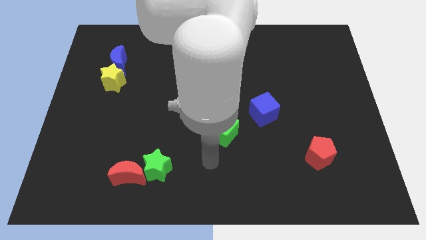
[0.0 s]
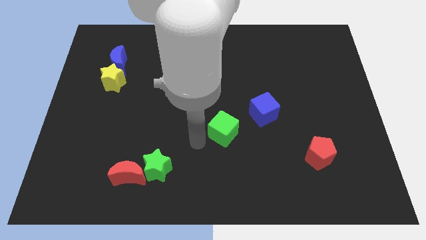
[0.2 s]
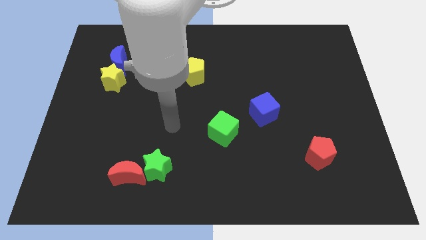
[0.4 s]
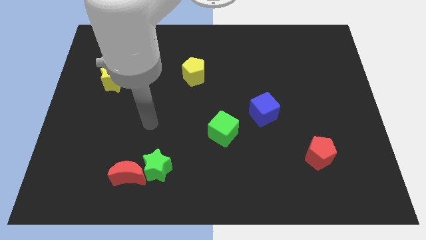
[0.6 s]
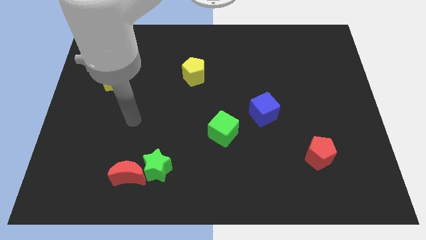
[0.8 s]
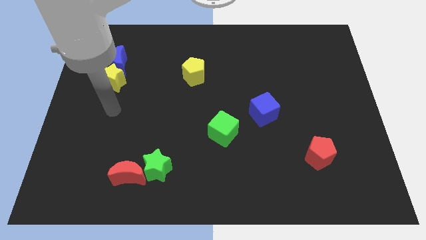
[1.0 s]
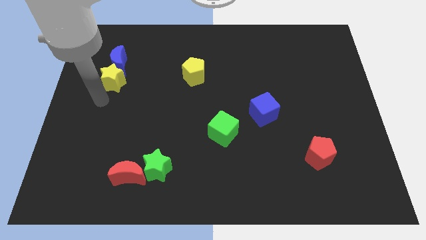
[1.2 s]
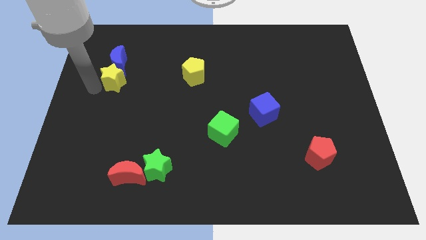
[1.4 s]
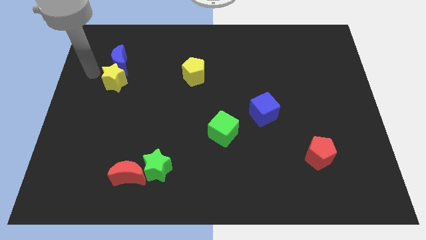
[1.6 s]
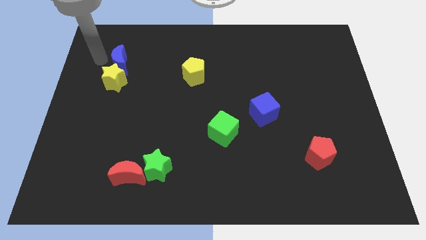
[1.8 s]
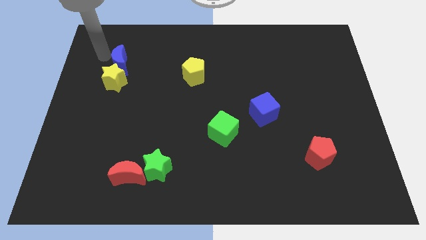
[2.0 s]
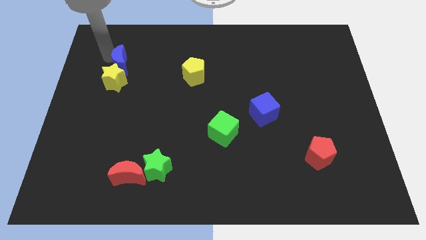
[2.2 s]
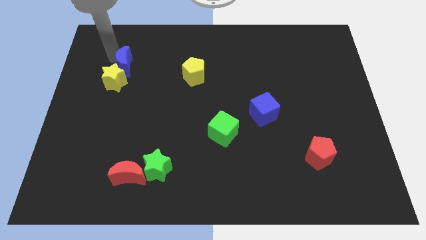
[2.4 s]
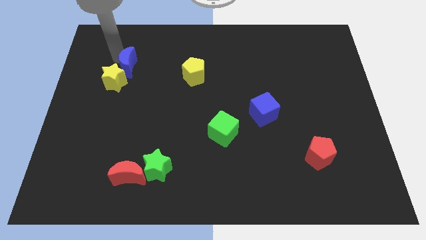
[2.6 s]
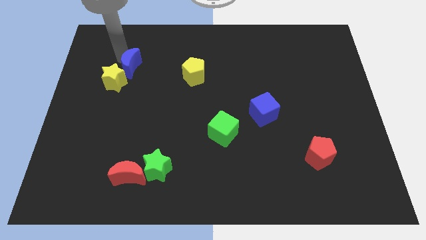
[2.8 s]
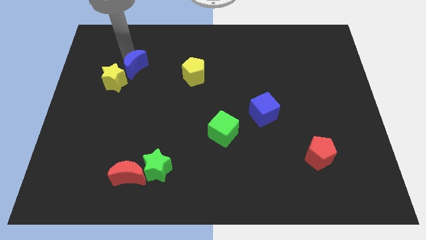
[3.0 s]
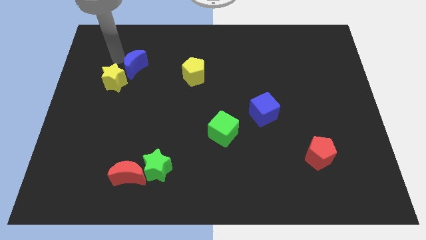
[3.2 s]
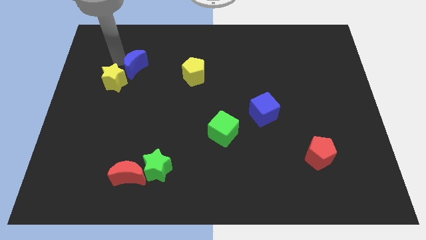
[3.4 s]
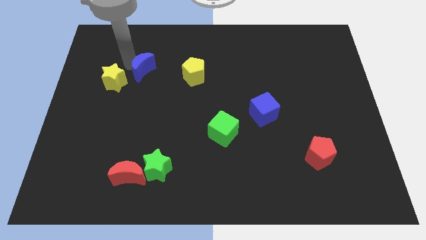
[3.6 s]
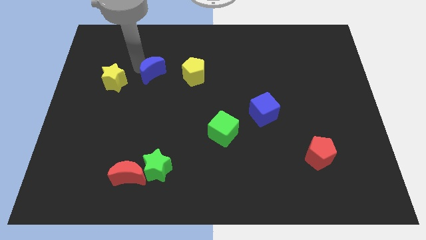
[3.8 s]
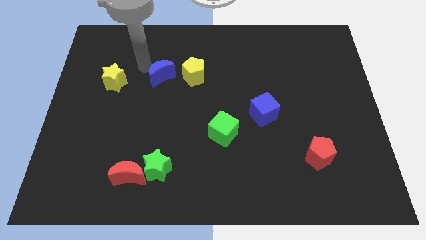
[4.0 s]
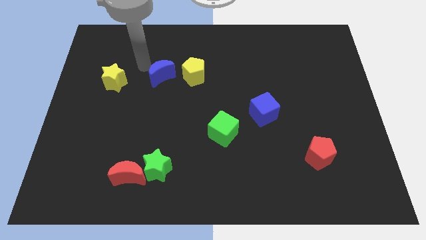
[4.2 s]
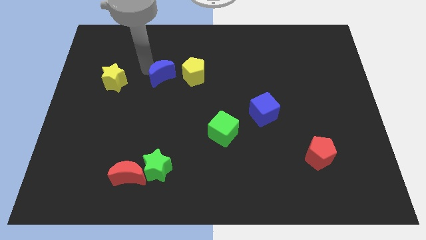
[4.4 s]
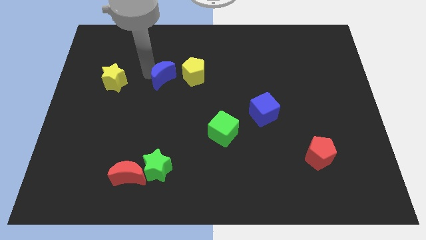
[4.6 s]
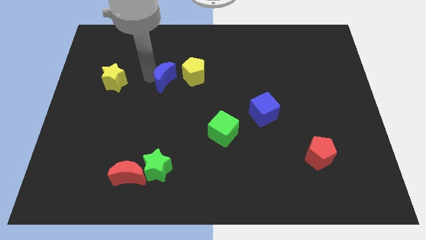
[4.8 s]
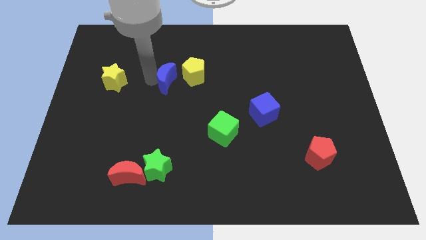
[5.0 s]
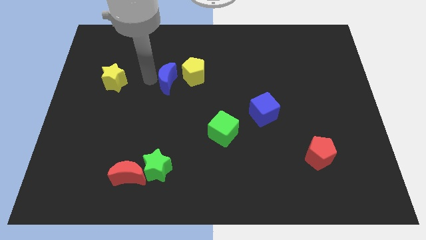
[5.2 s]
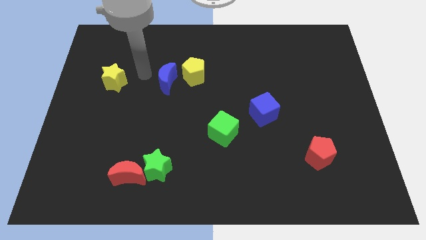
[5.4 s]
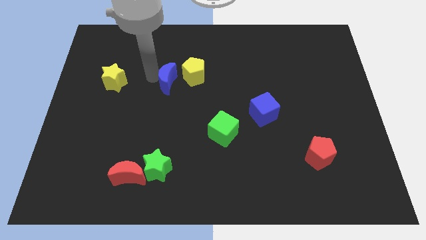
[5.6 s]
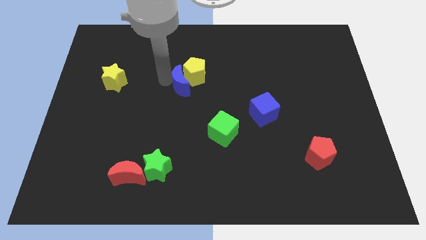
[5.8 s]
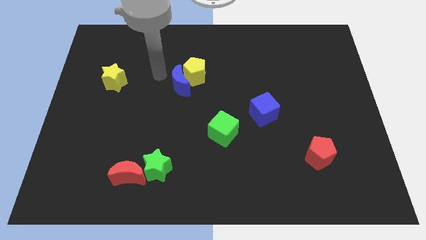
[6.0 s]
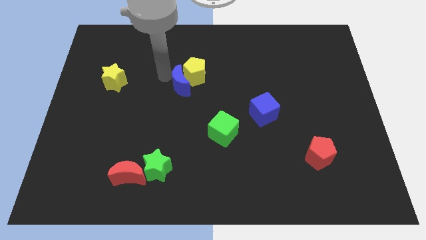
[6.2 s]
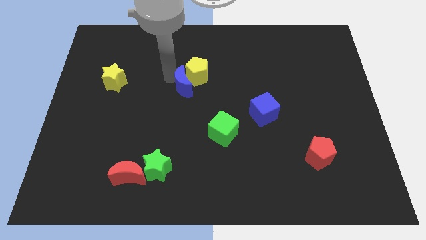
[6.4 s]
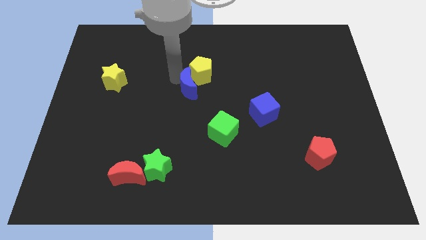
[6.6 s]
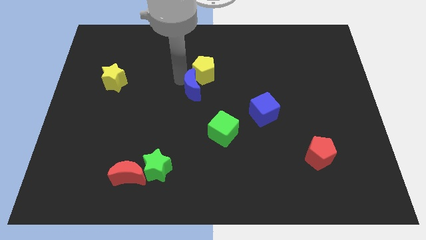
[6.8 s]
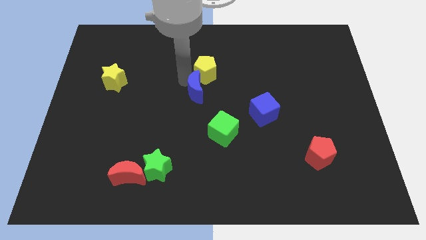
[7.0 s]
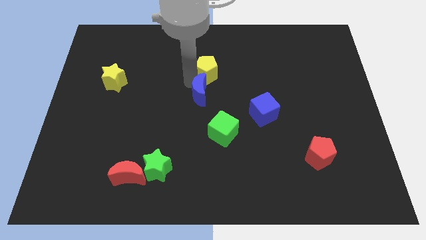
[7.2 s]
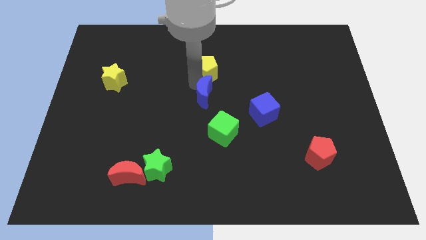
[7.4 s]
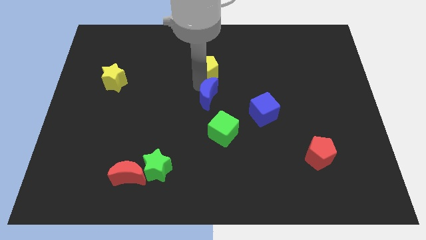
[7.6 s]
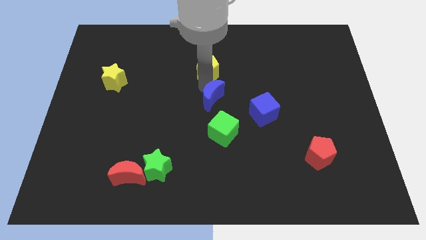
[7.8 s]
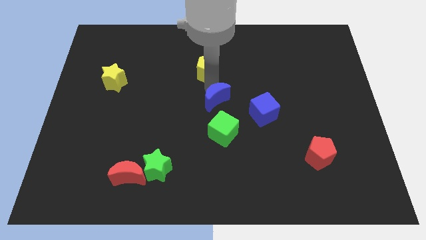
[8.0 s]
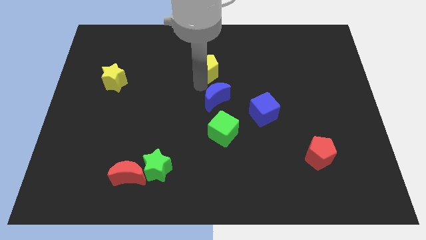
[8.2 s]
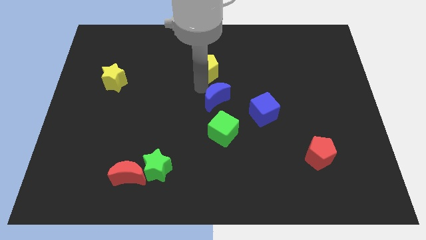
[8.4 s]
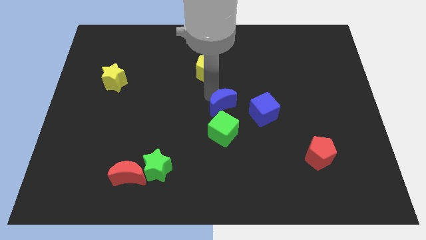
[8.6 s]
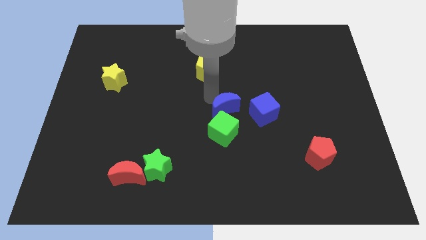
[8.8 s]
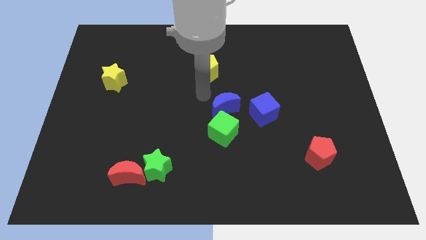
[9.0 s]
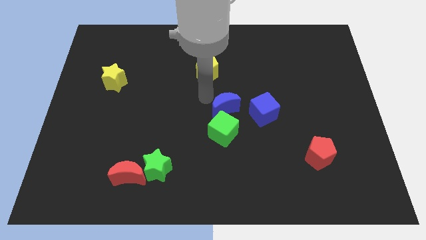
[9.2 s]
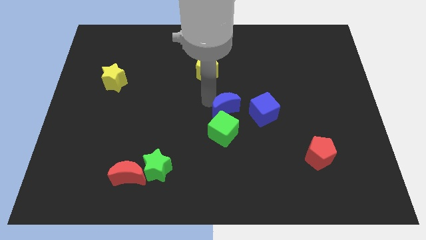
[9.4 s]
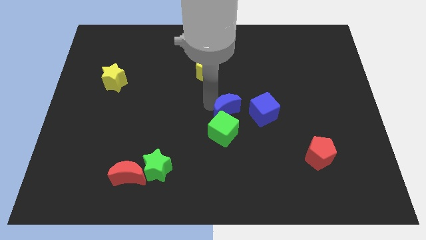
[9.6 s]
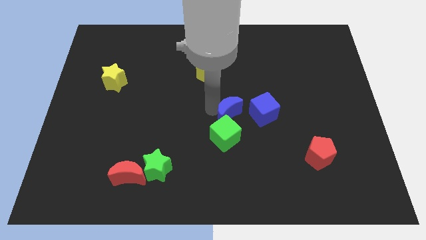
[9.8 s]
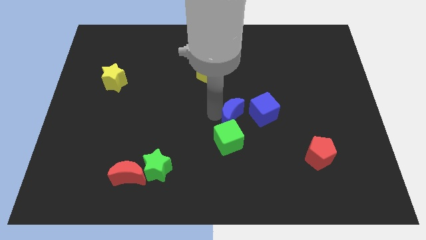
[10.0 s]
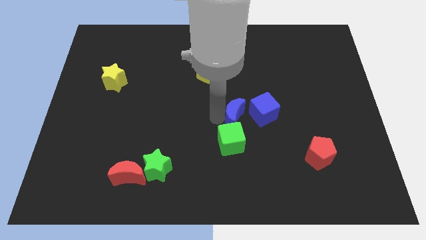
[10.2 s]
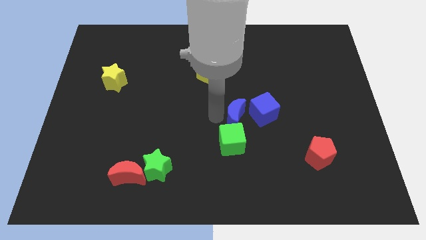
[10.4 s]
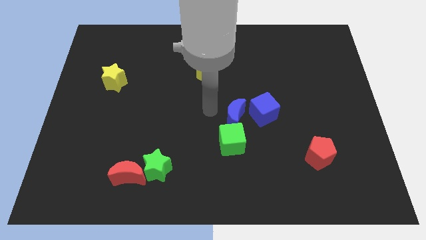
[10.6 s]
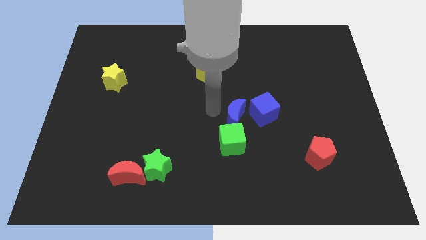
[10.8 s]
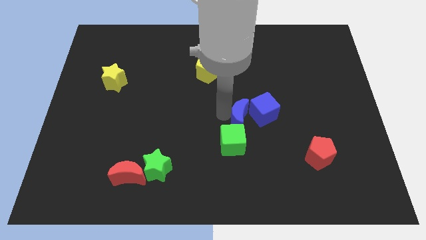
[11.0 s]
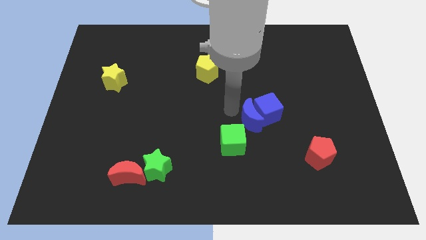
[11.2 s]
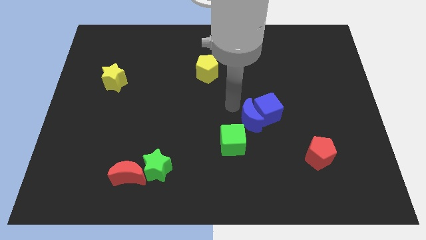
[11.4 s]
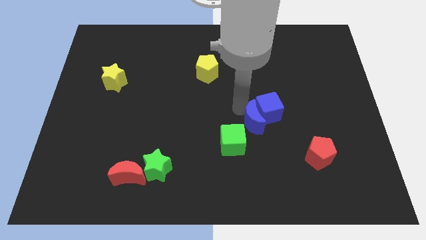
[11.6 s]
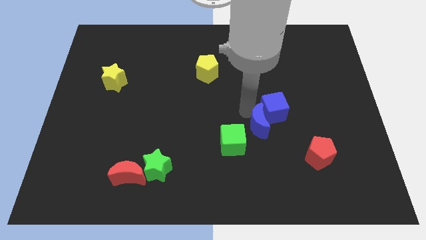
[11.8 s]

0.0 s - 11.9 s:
move the blue moon to the right side of the green cube

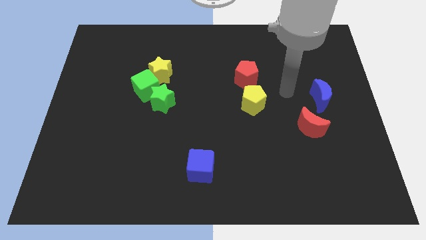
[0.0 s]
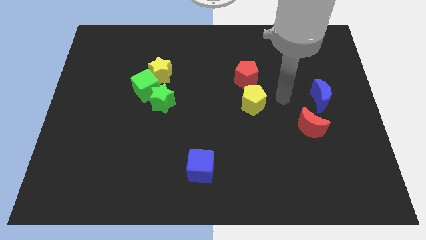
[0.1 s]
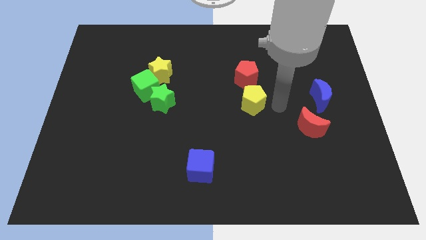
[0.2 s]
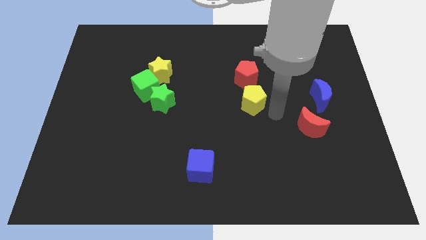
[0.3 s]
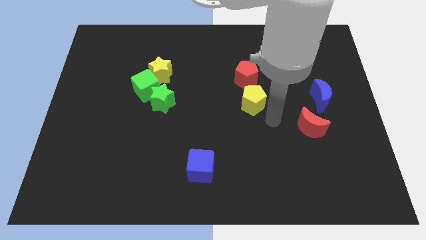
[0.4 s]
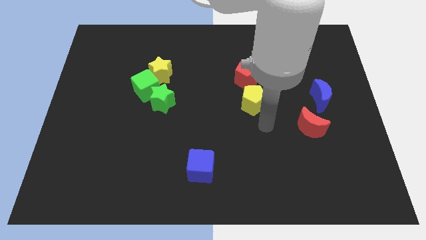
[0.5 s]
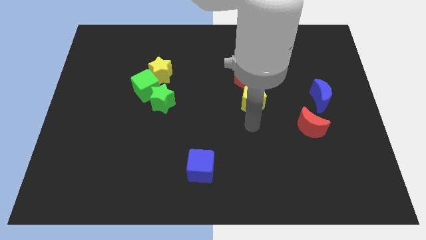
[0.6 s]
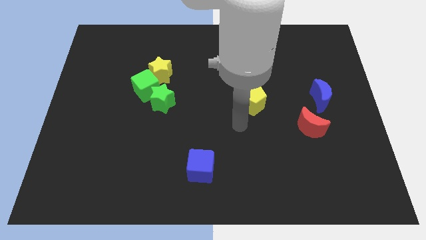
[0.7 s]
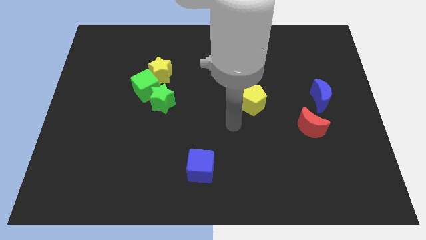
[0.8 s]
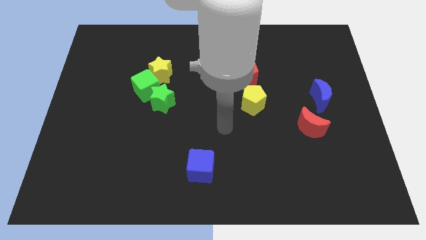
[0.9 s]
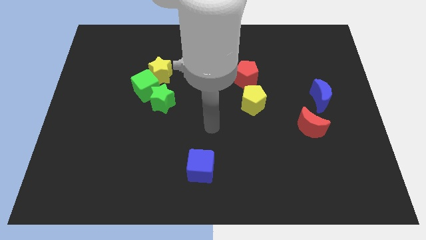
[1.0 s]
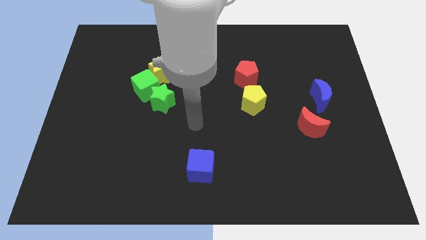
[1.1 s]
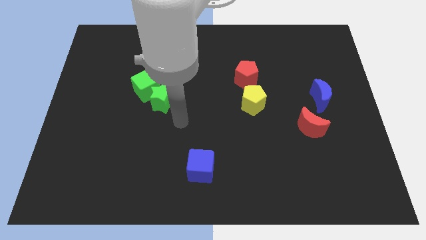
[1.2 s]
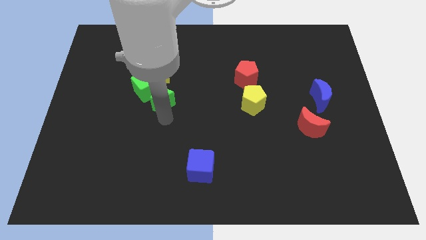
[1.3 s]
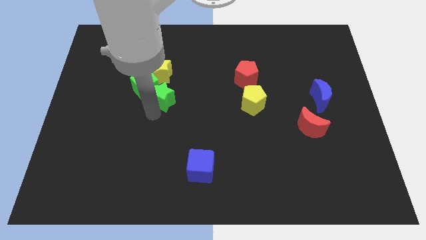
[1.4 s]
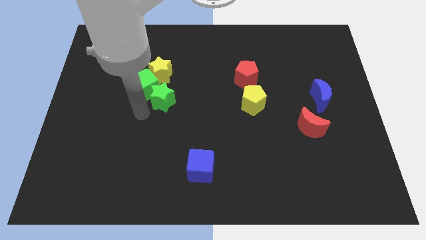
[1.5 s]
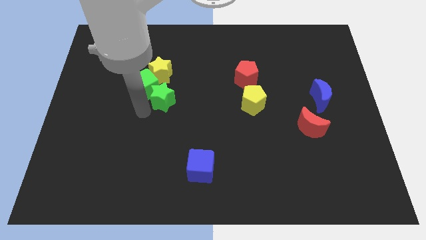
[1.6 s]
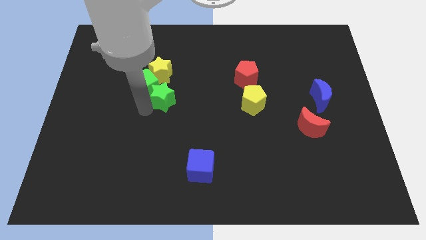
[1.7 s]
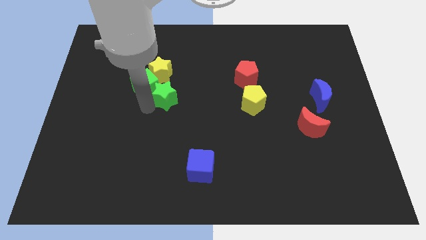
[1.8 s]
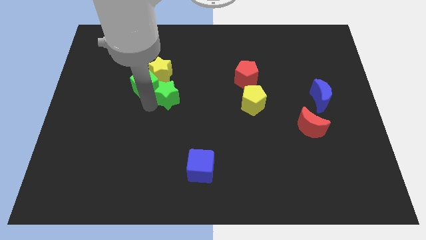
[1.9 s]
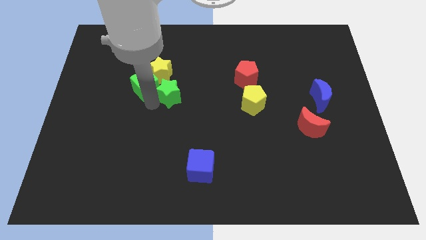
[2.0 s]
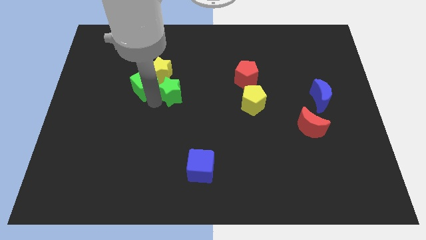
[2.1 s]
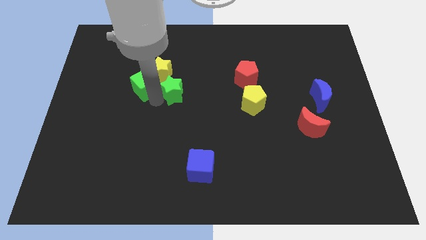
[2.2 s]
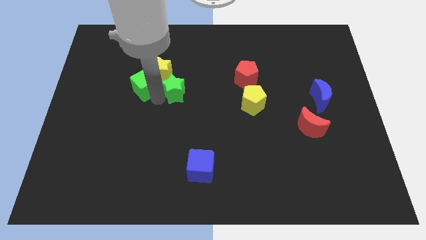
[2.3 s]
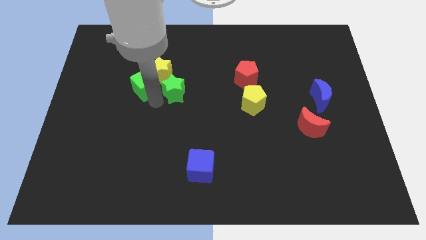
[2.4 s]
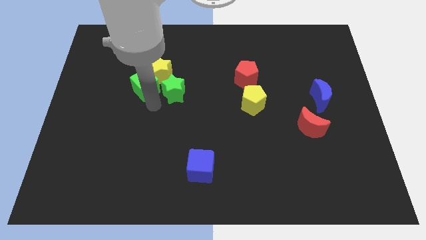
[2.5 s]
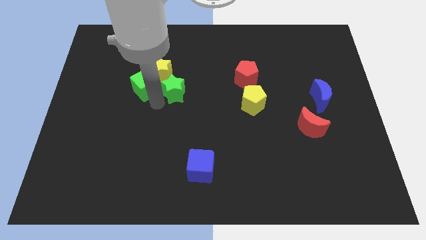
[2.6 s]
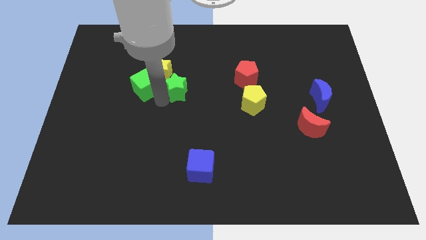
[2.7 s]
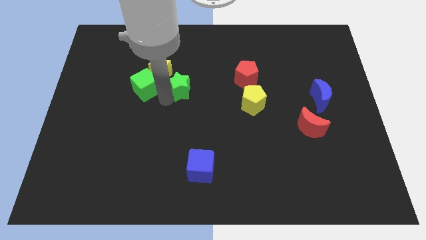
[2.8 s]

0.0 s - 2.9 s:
push the green star to the right side of the yellow star
